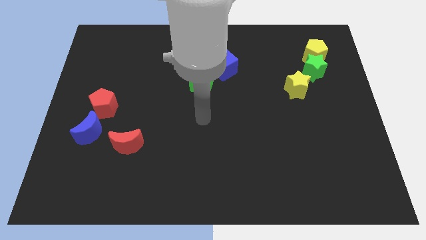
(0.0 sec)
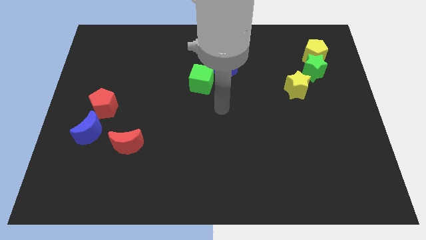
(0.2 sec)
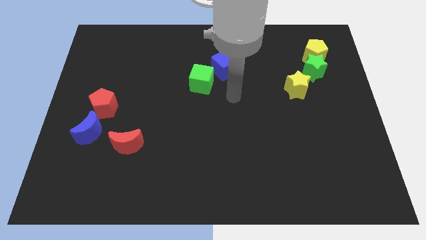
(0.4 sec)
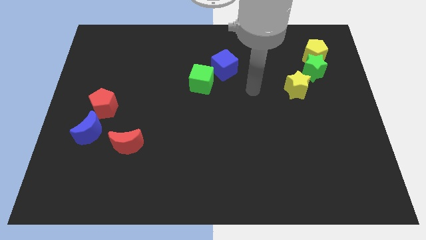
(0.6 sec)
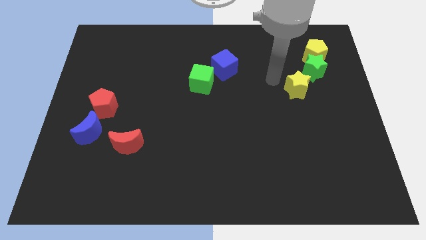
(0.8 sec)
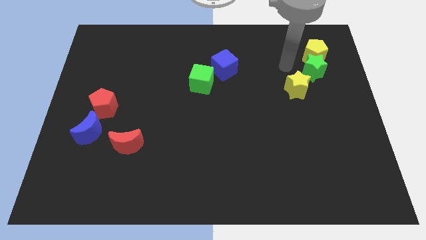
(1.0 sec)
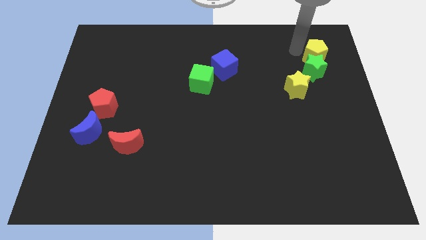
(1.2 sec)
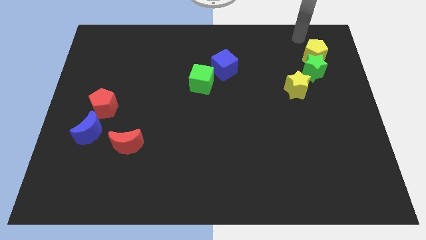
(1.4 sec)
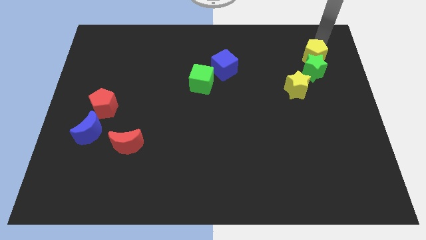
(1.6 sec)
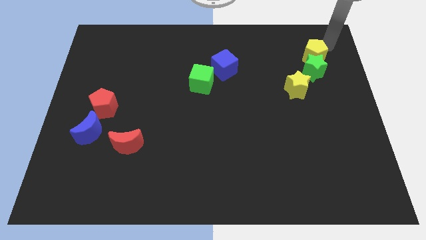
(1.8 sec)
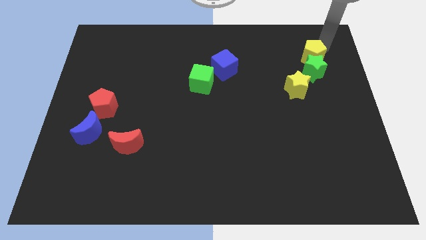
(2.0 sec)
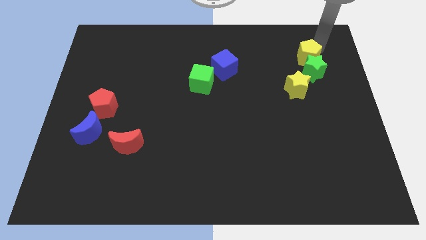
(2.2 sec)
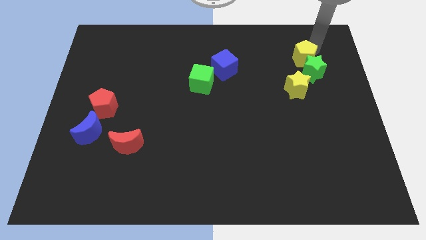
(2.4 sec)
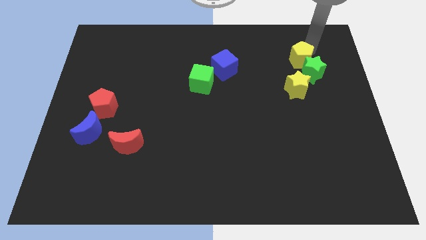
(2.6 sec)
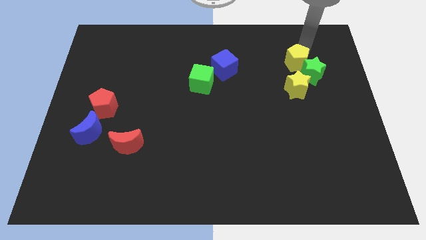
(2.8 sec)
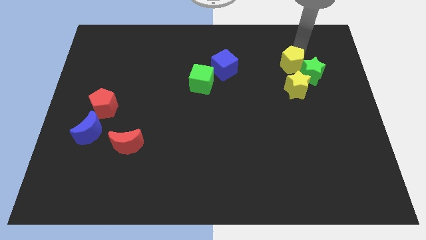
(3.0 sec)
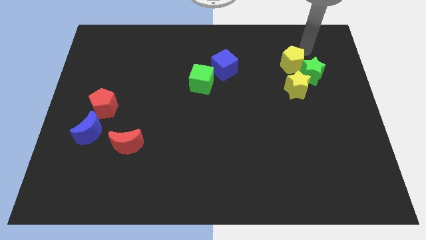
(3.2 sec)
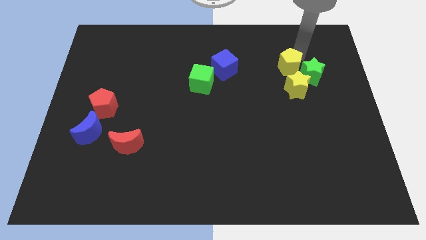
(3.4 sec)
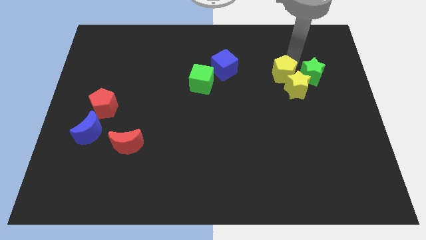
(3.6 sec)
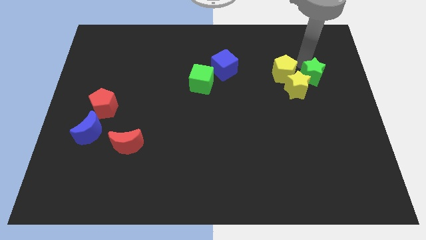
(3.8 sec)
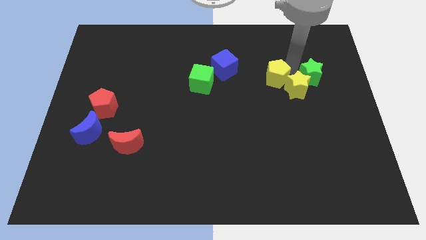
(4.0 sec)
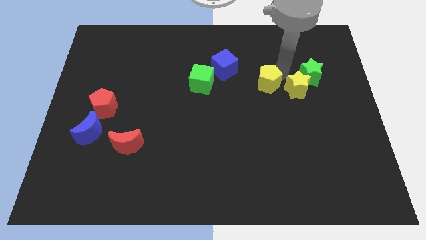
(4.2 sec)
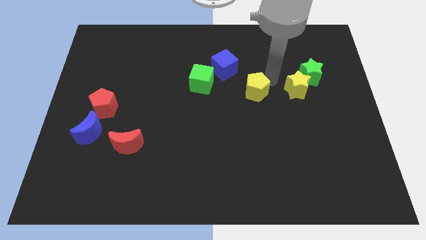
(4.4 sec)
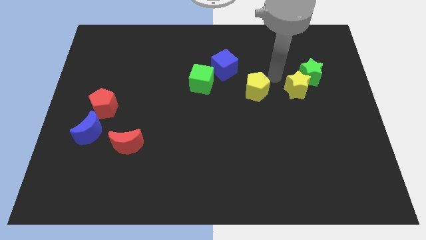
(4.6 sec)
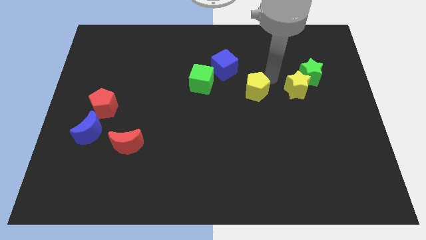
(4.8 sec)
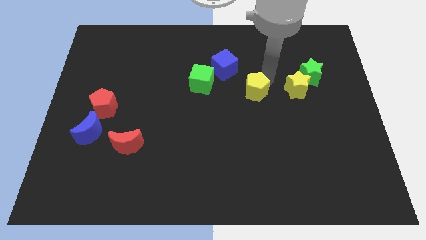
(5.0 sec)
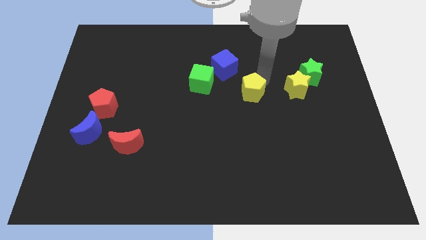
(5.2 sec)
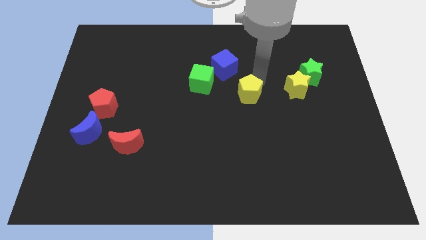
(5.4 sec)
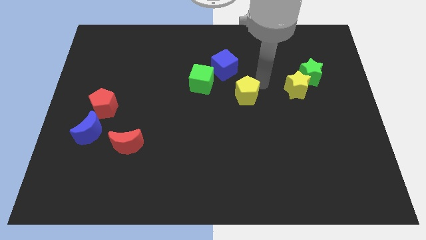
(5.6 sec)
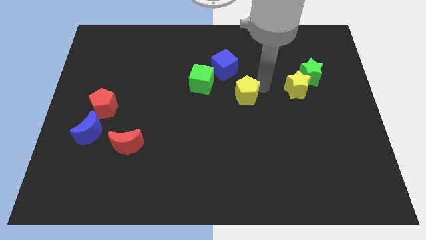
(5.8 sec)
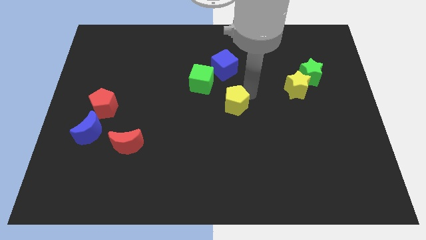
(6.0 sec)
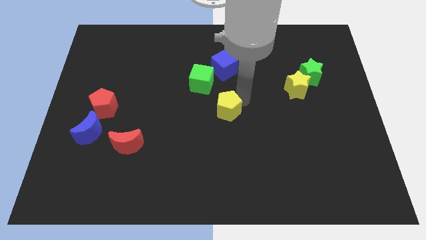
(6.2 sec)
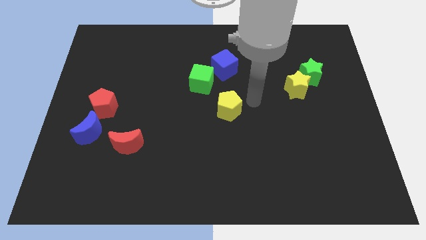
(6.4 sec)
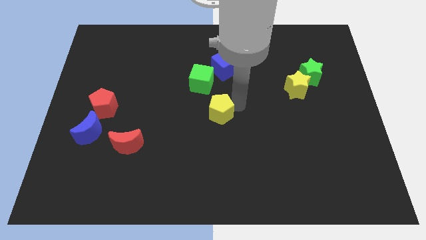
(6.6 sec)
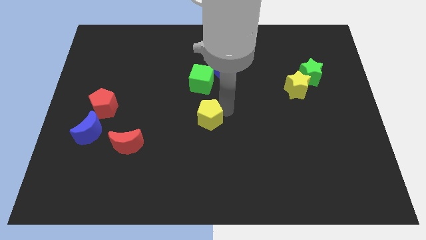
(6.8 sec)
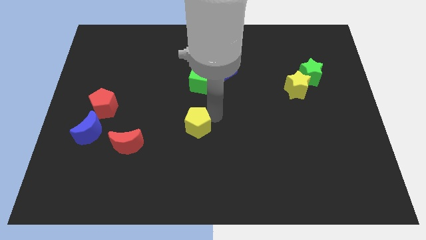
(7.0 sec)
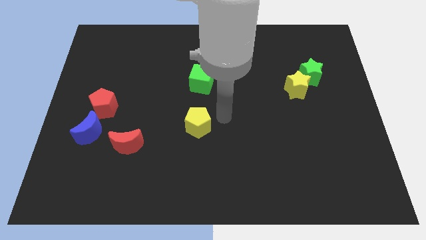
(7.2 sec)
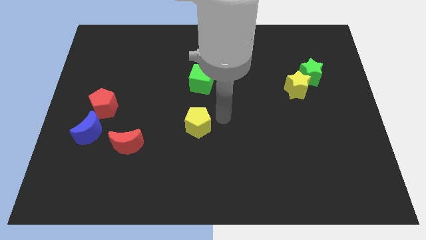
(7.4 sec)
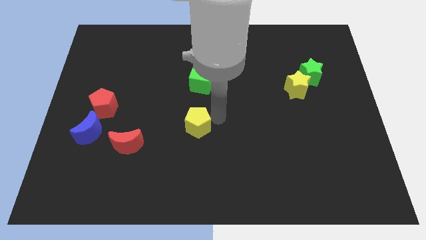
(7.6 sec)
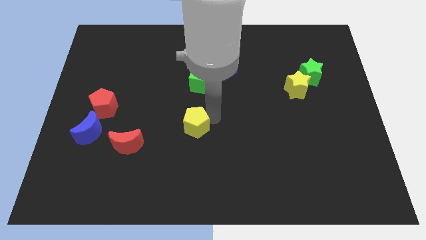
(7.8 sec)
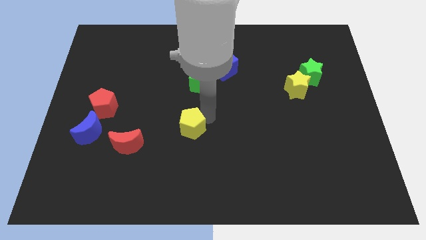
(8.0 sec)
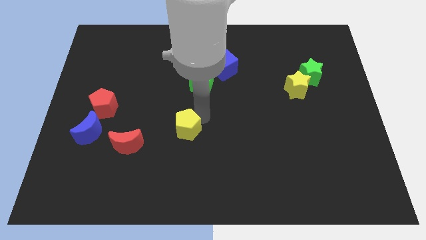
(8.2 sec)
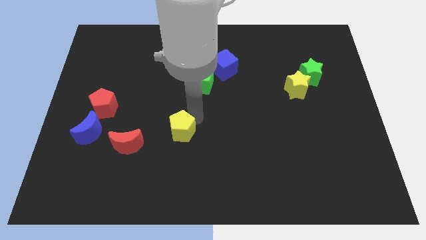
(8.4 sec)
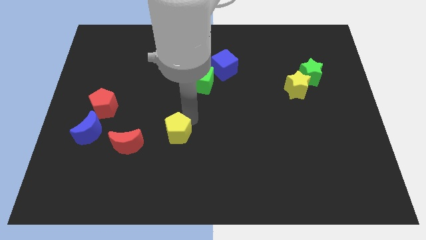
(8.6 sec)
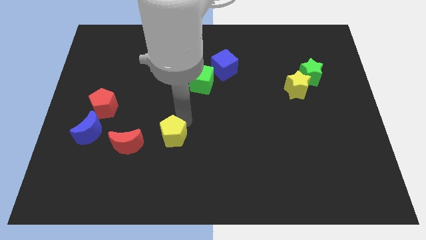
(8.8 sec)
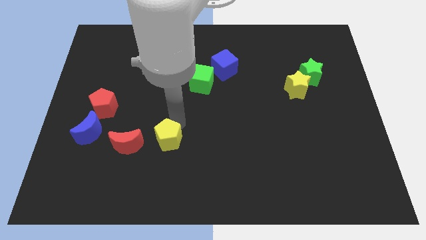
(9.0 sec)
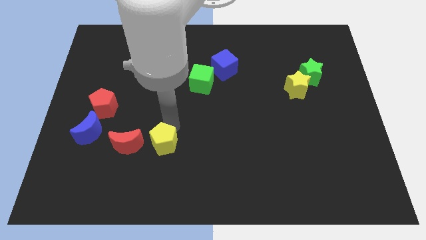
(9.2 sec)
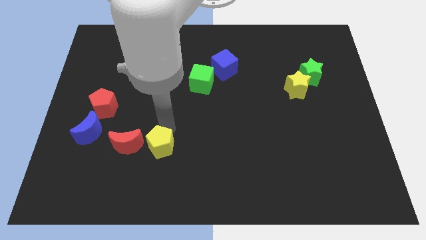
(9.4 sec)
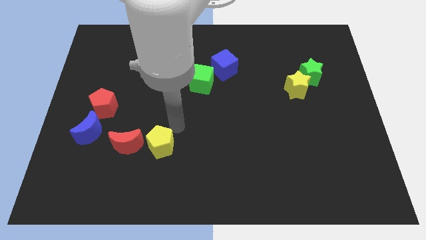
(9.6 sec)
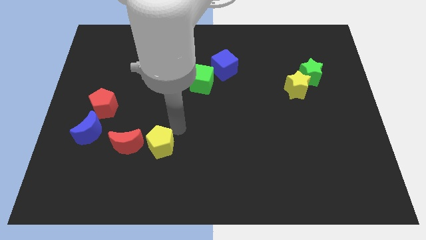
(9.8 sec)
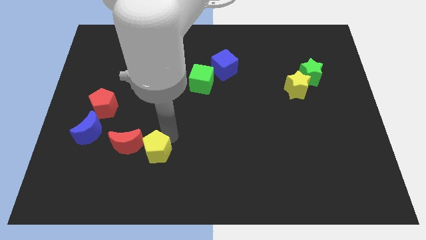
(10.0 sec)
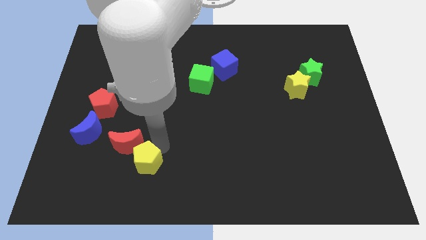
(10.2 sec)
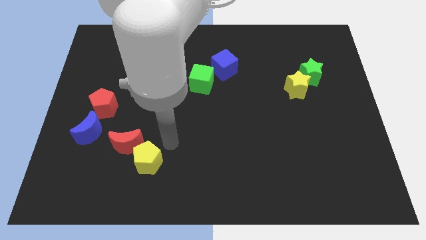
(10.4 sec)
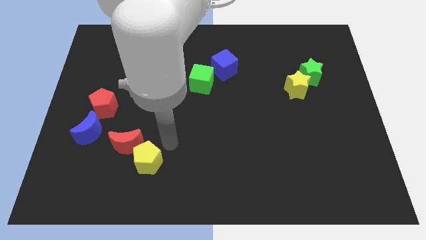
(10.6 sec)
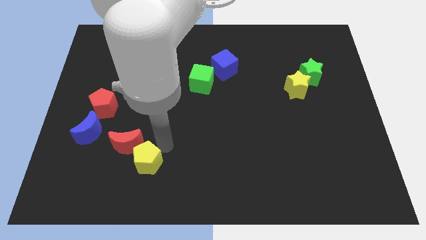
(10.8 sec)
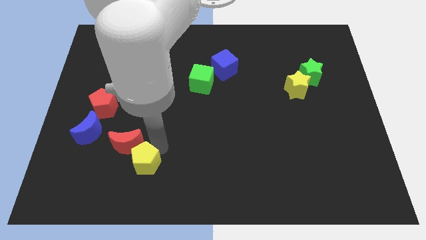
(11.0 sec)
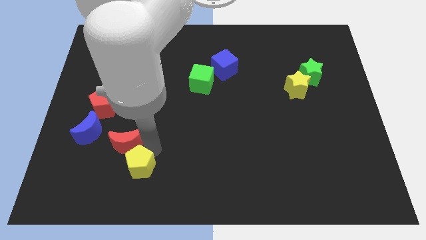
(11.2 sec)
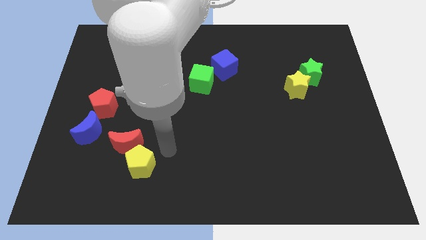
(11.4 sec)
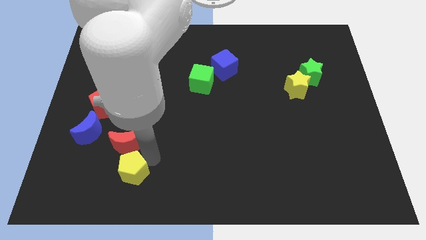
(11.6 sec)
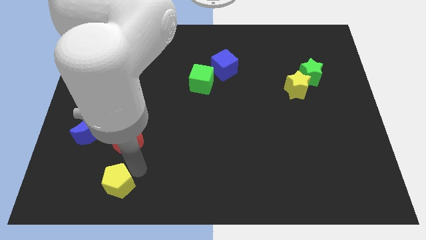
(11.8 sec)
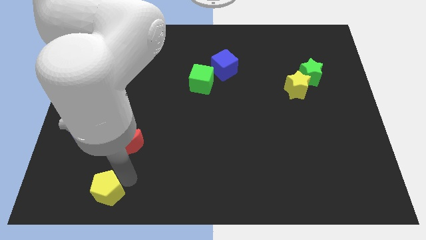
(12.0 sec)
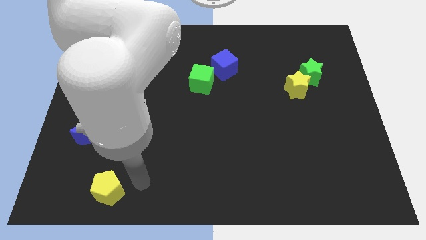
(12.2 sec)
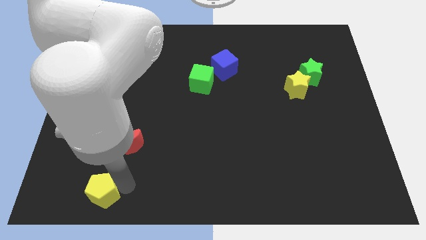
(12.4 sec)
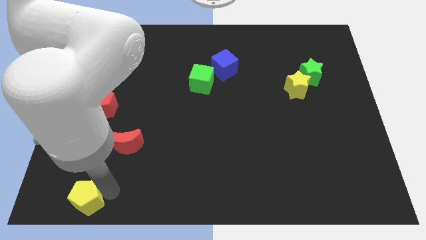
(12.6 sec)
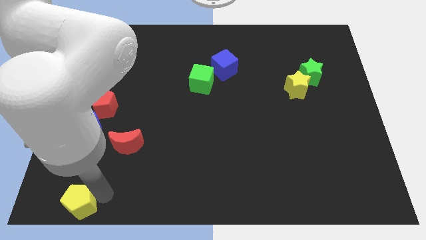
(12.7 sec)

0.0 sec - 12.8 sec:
push the yellow pentagon to the bottom left of the board

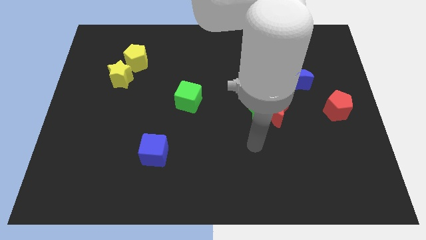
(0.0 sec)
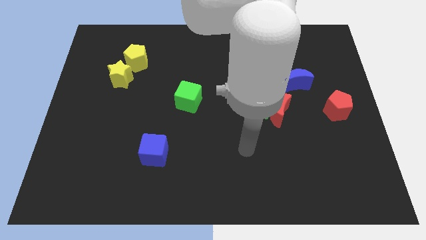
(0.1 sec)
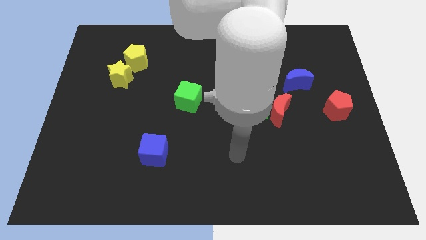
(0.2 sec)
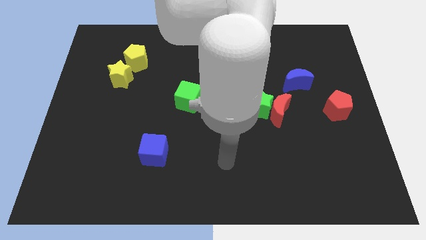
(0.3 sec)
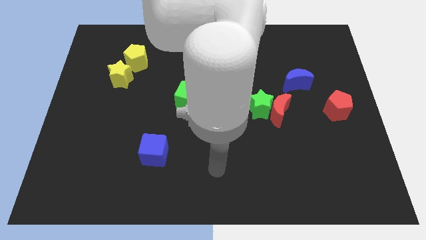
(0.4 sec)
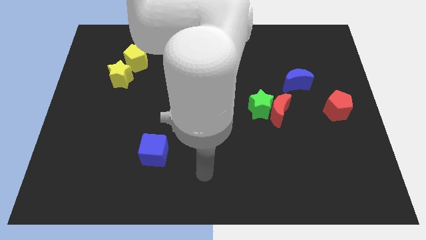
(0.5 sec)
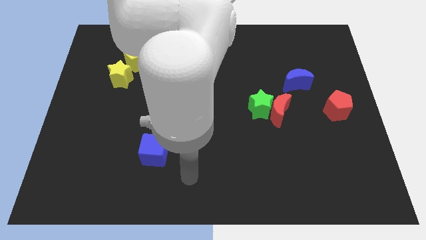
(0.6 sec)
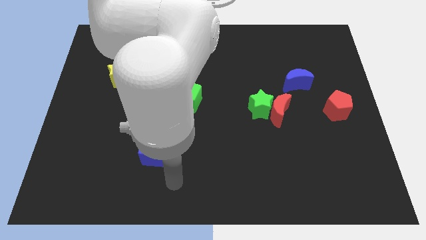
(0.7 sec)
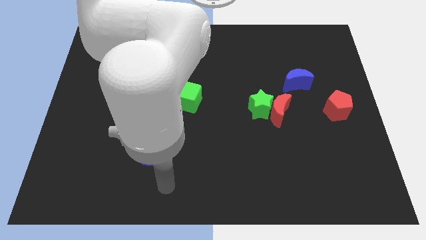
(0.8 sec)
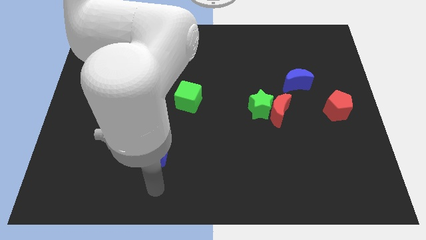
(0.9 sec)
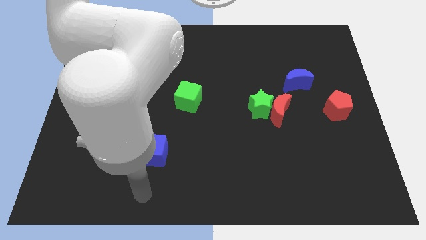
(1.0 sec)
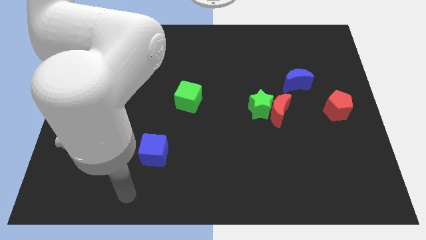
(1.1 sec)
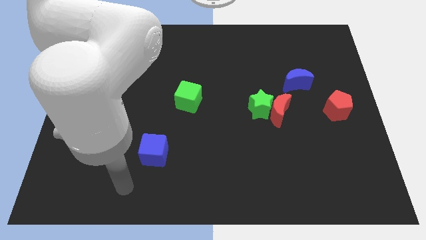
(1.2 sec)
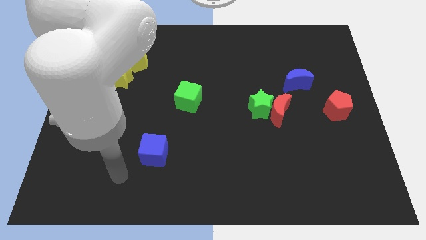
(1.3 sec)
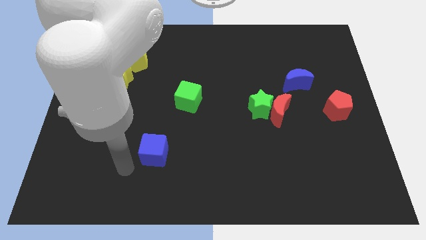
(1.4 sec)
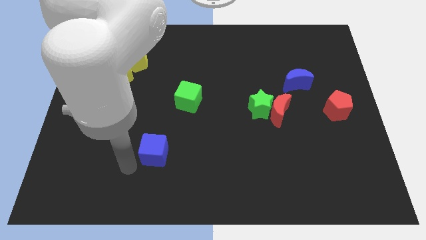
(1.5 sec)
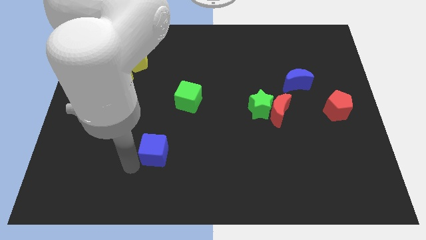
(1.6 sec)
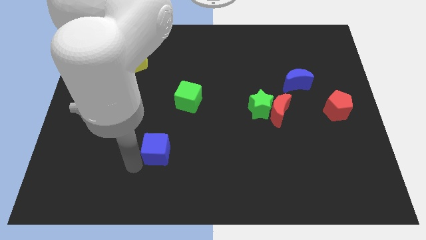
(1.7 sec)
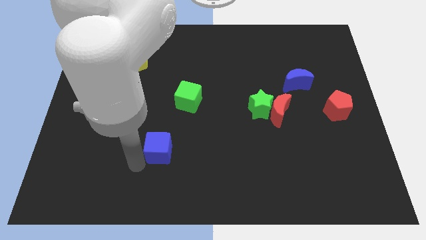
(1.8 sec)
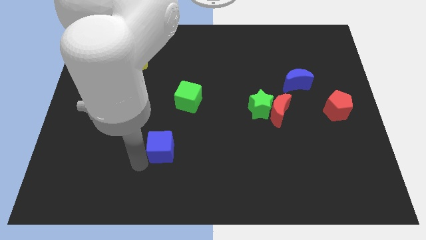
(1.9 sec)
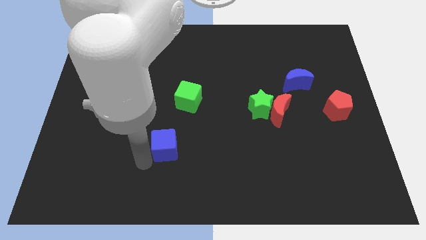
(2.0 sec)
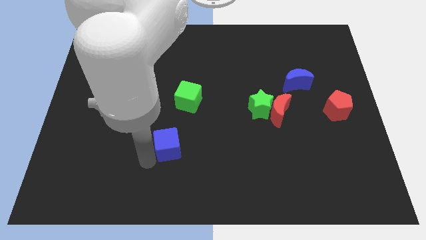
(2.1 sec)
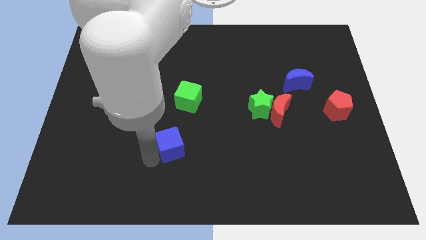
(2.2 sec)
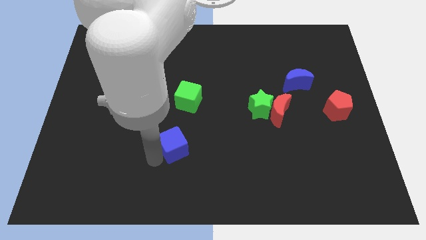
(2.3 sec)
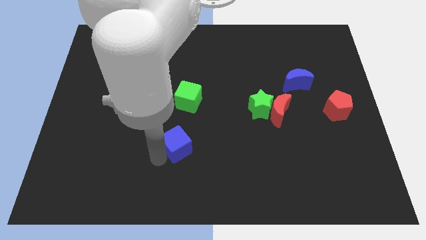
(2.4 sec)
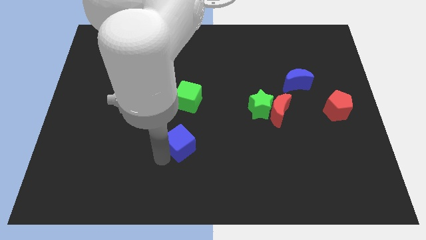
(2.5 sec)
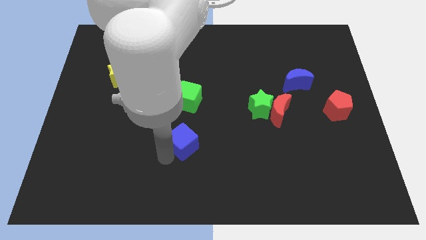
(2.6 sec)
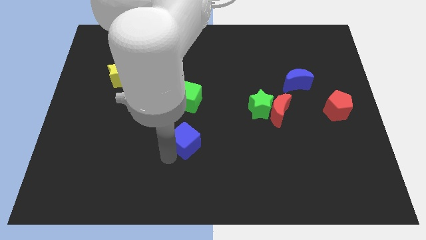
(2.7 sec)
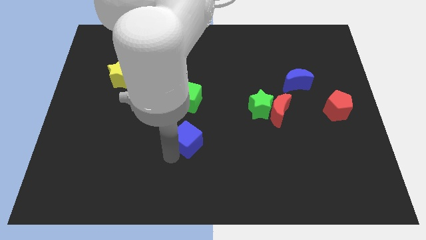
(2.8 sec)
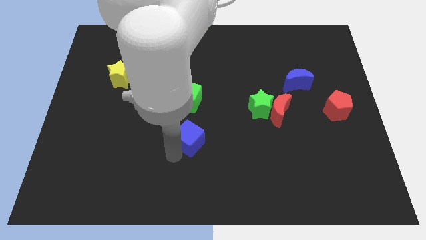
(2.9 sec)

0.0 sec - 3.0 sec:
put the blue cube to the center
